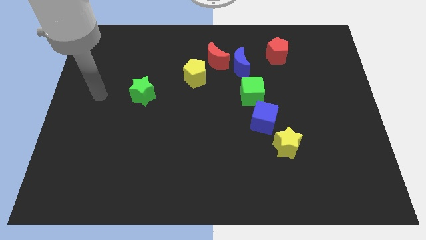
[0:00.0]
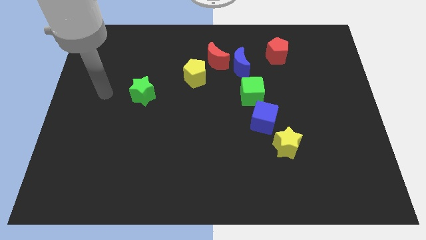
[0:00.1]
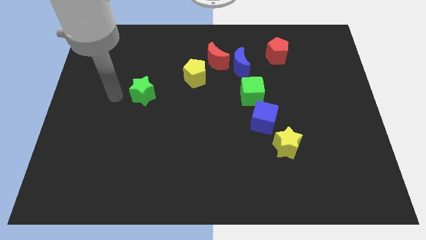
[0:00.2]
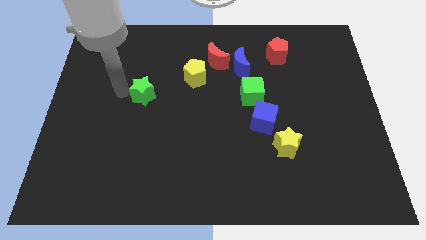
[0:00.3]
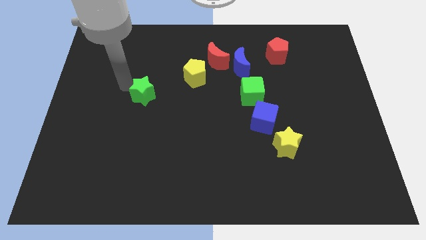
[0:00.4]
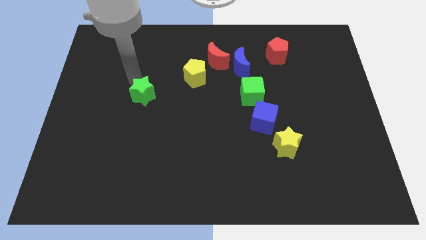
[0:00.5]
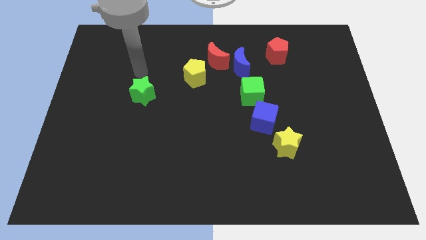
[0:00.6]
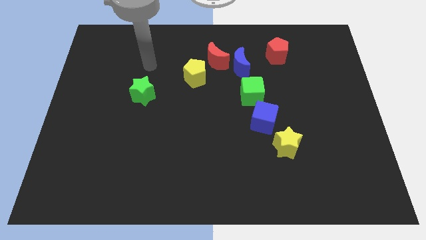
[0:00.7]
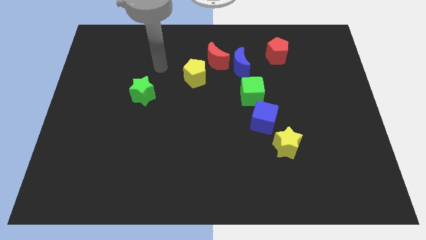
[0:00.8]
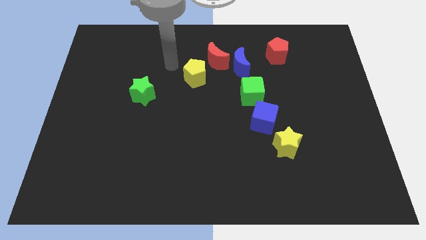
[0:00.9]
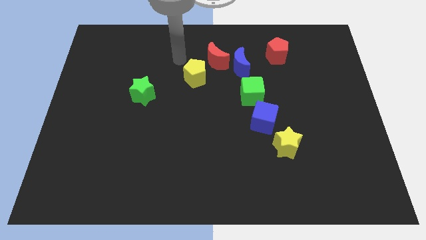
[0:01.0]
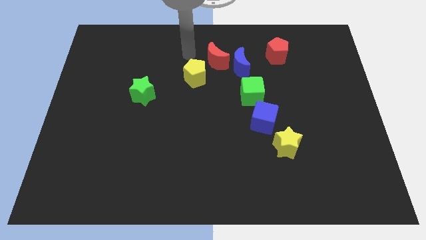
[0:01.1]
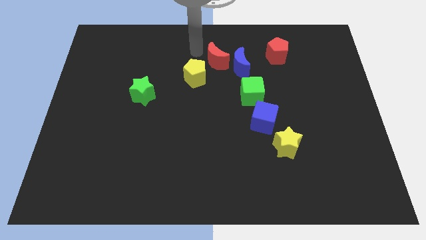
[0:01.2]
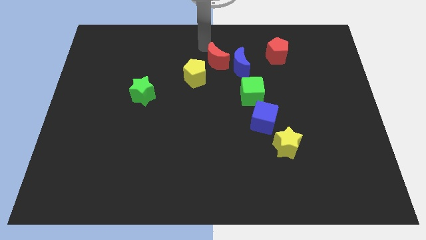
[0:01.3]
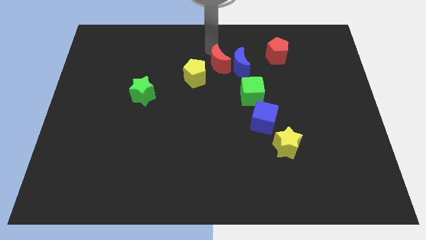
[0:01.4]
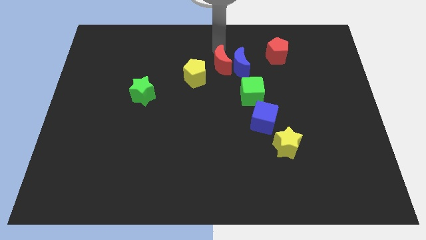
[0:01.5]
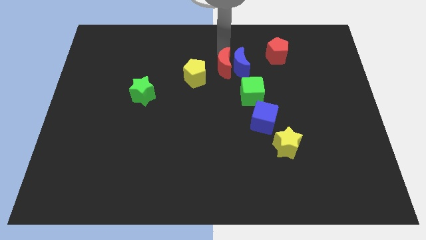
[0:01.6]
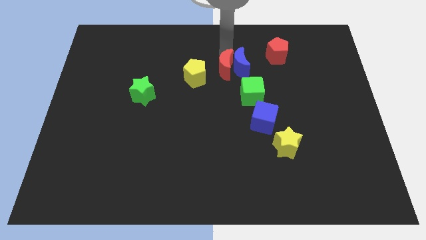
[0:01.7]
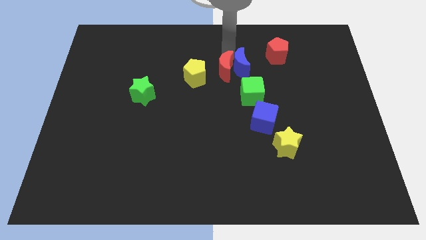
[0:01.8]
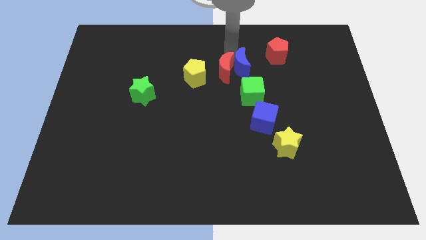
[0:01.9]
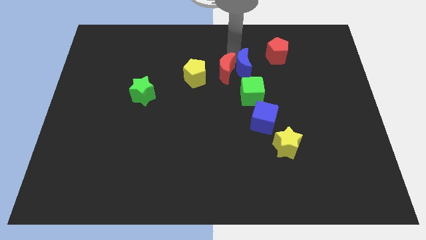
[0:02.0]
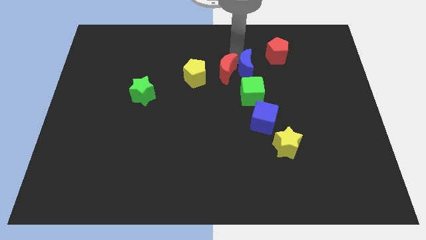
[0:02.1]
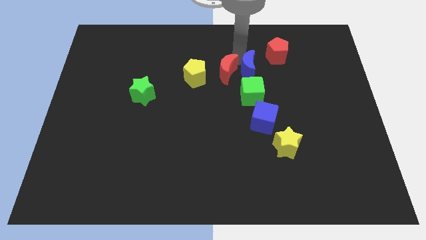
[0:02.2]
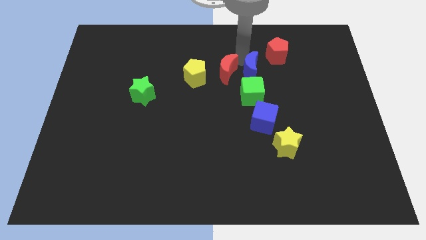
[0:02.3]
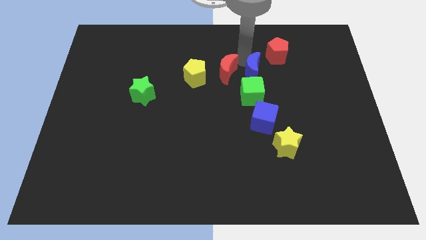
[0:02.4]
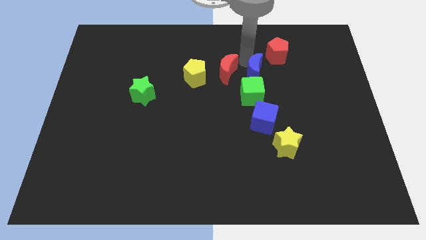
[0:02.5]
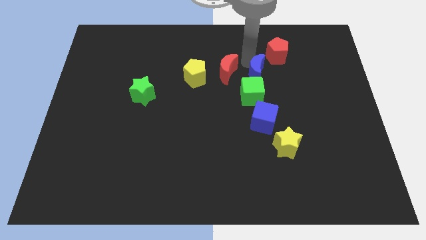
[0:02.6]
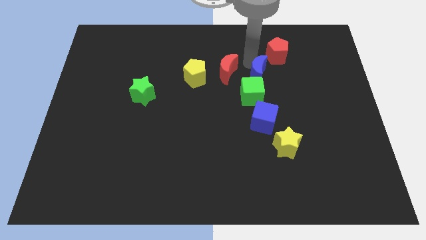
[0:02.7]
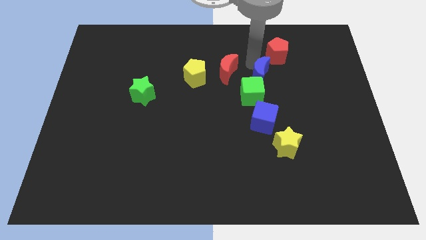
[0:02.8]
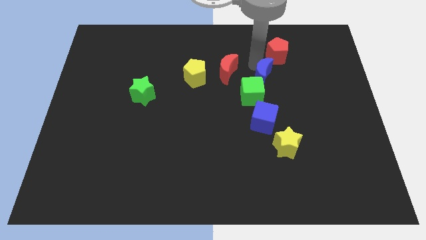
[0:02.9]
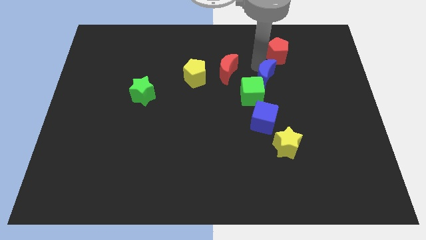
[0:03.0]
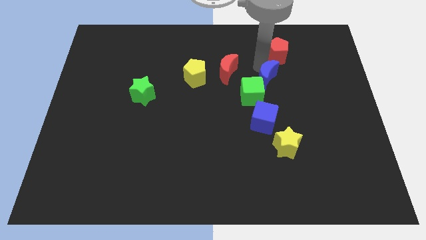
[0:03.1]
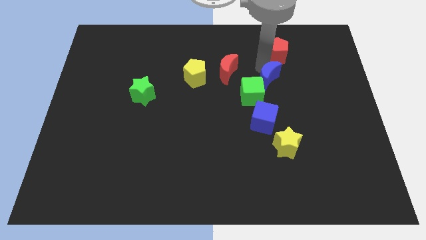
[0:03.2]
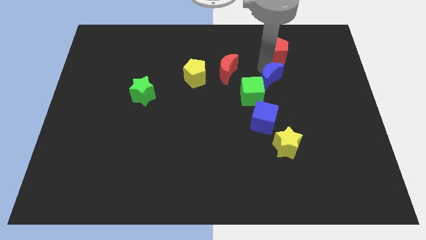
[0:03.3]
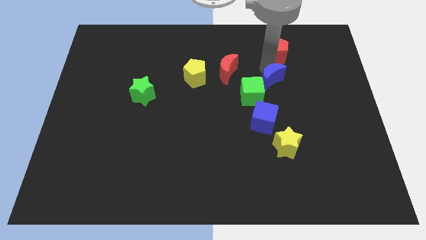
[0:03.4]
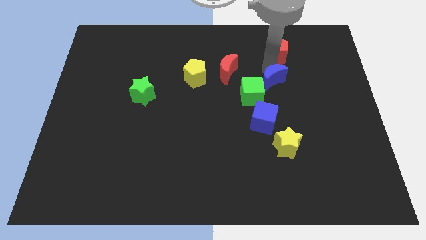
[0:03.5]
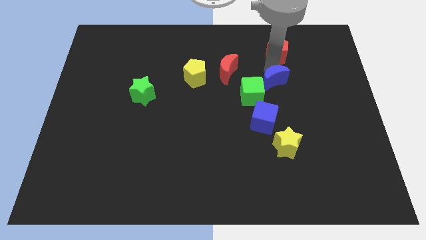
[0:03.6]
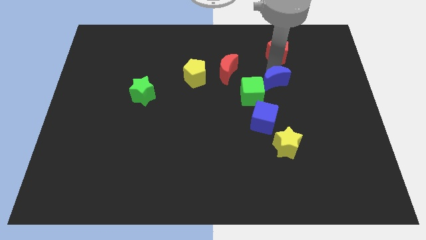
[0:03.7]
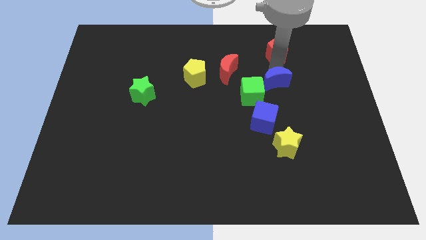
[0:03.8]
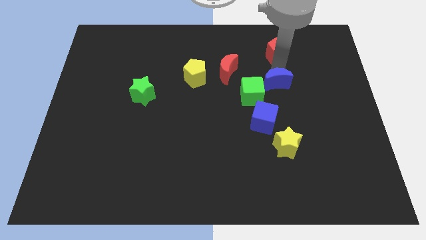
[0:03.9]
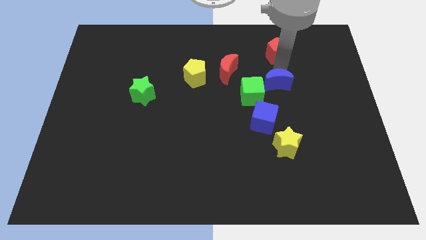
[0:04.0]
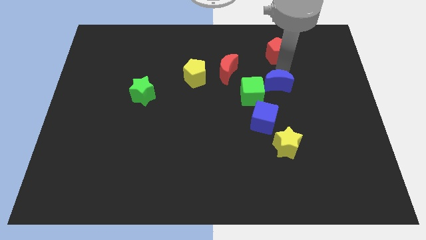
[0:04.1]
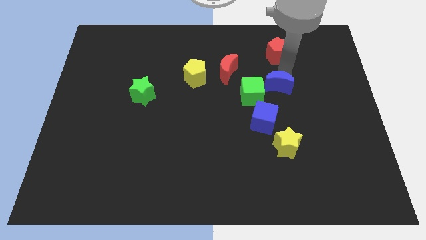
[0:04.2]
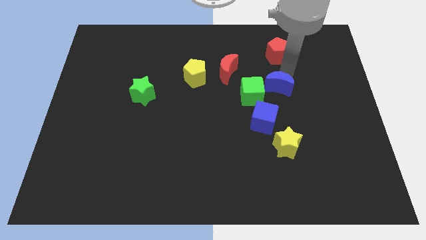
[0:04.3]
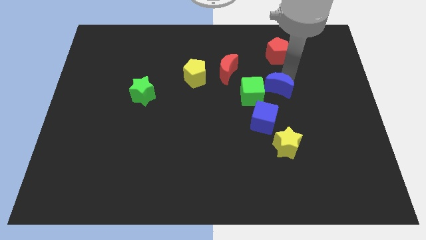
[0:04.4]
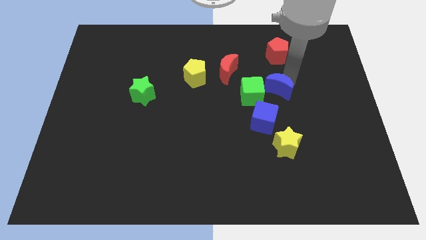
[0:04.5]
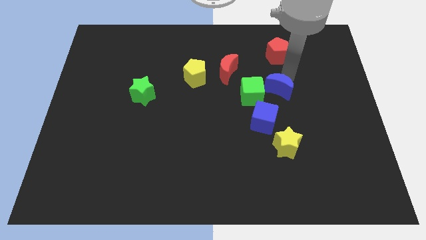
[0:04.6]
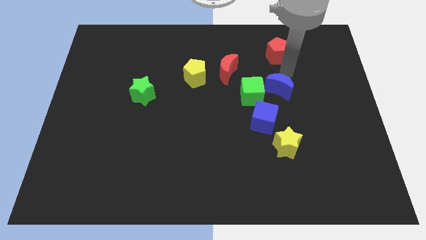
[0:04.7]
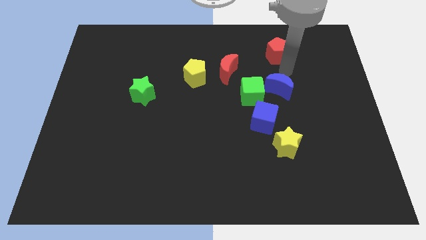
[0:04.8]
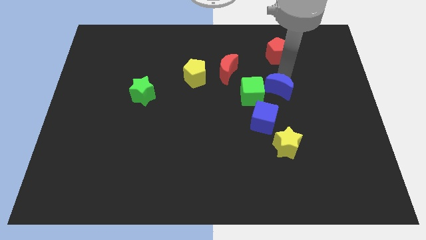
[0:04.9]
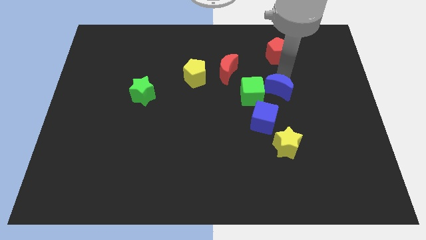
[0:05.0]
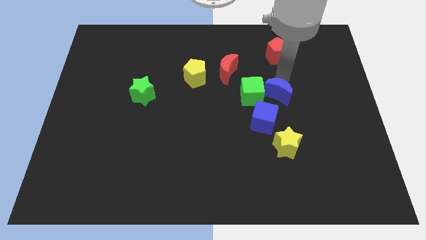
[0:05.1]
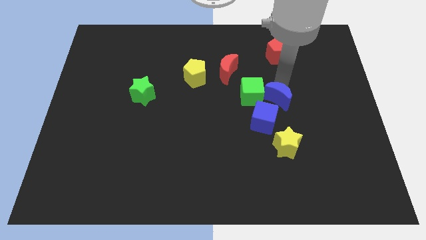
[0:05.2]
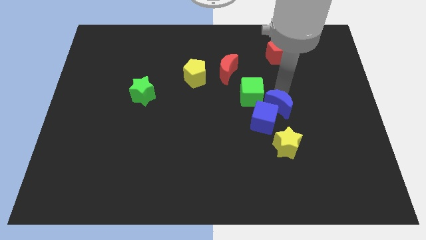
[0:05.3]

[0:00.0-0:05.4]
push the blue moon next to the blue cube

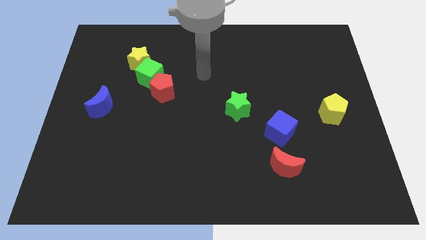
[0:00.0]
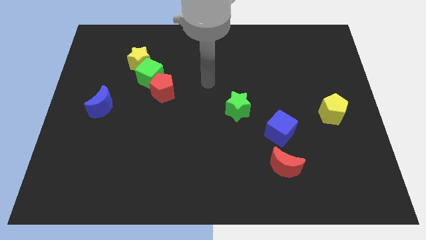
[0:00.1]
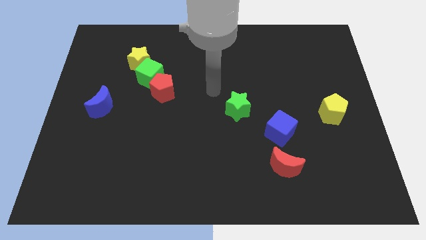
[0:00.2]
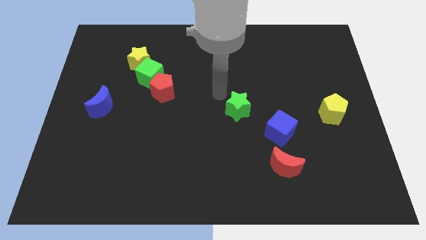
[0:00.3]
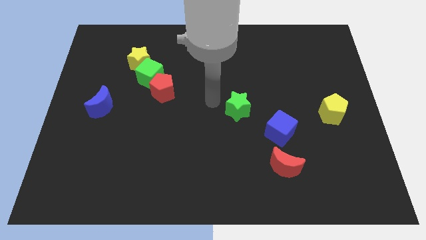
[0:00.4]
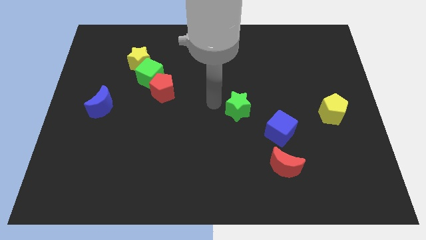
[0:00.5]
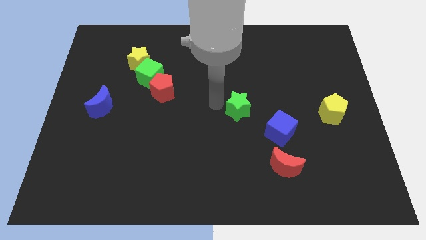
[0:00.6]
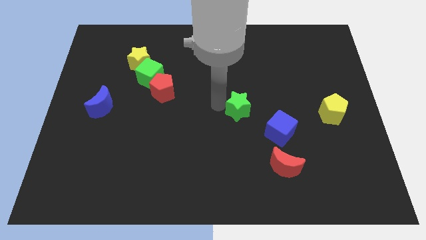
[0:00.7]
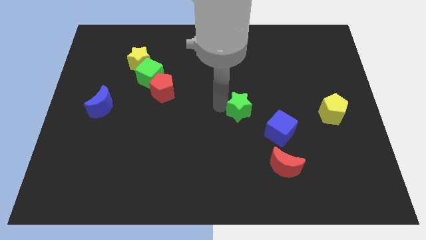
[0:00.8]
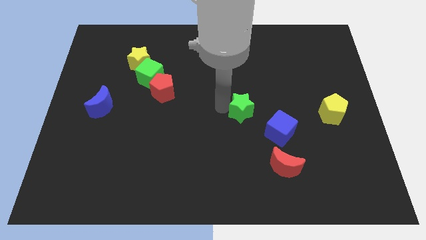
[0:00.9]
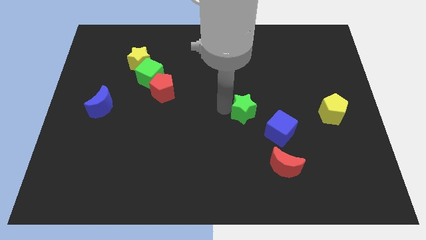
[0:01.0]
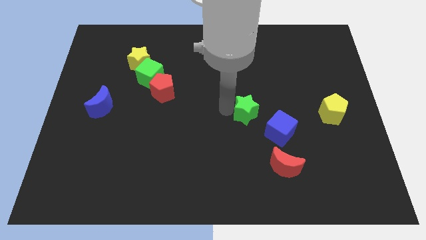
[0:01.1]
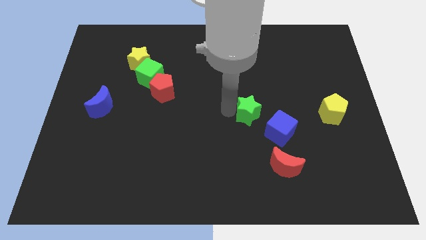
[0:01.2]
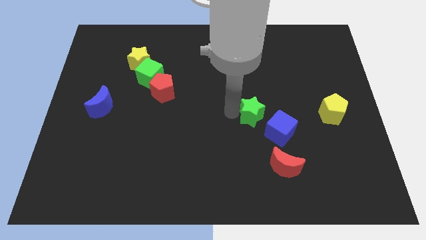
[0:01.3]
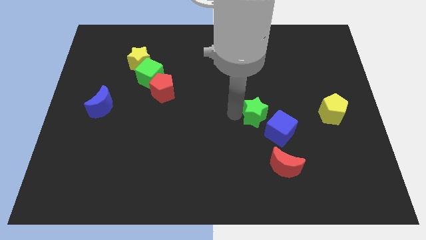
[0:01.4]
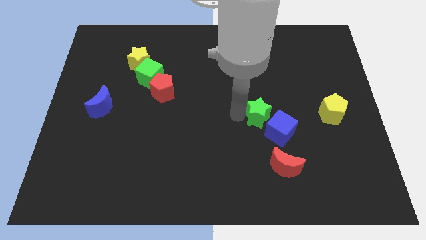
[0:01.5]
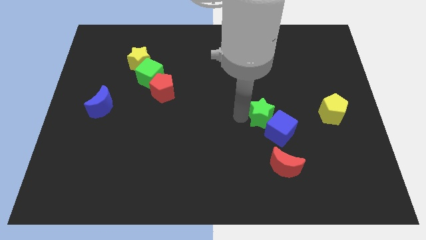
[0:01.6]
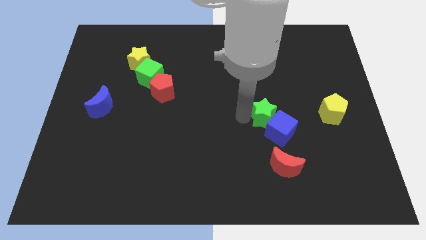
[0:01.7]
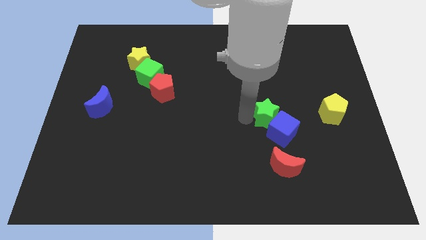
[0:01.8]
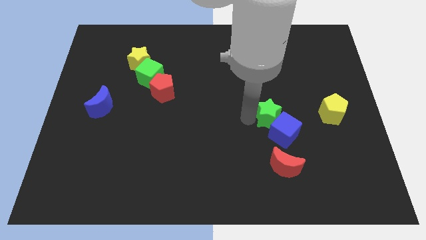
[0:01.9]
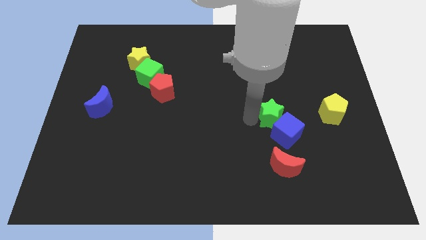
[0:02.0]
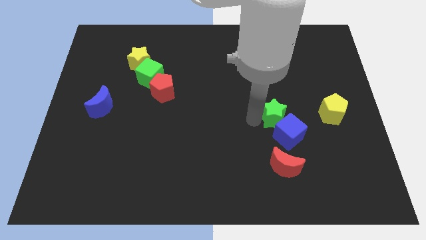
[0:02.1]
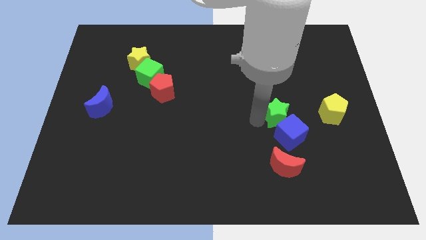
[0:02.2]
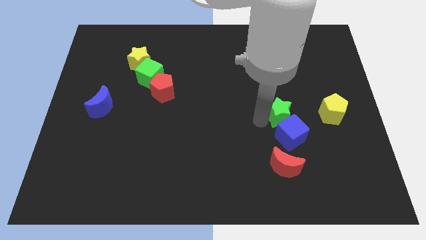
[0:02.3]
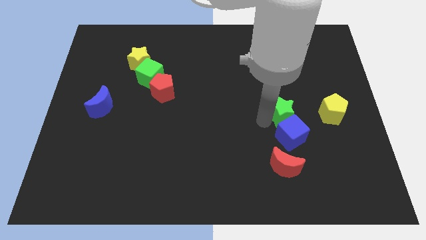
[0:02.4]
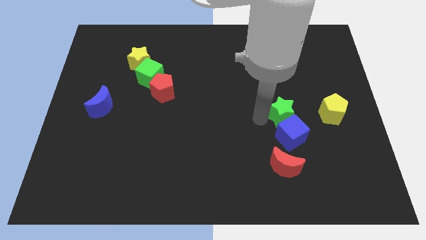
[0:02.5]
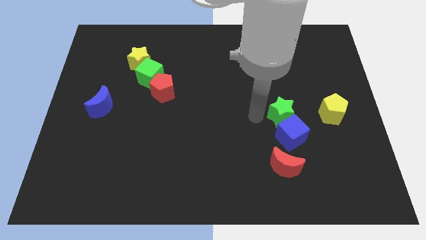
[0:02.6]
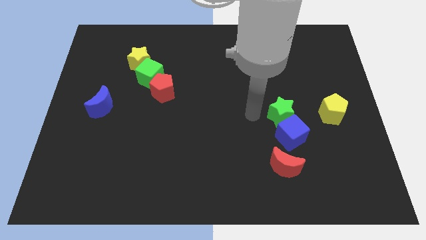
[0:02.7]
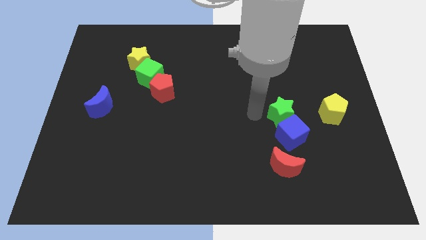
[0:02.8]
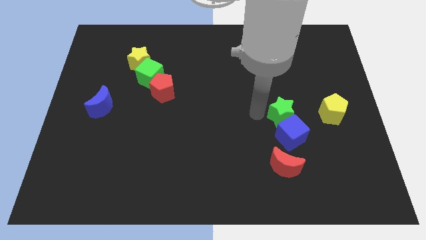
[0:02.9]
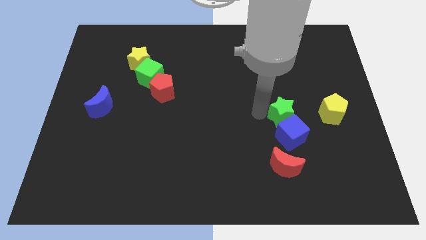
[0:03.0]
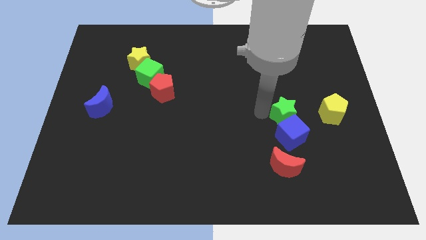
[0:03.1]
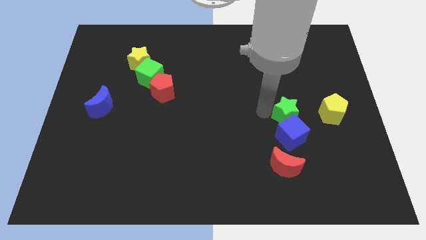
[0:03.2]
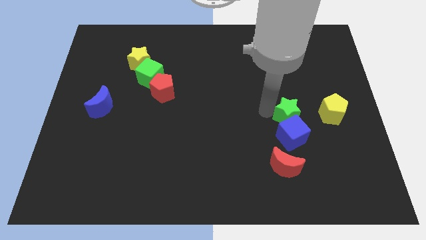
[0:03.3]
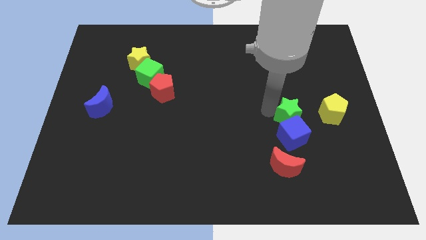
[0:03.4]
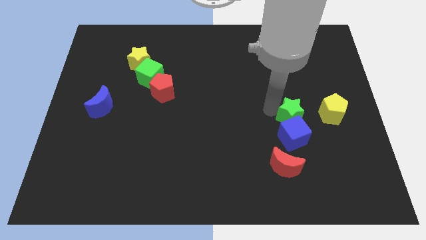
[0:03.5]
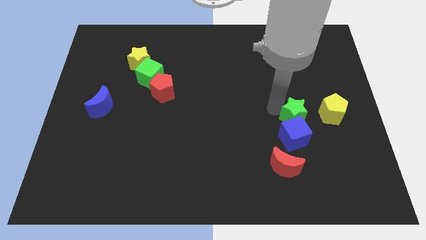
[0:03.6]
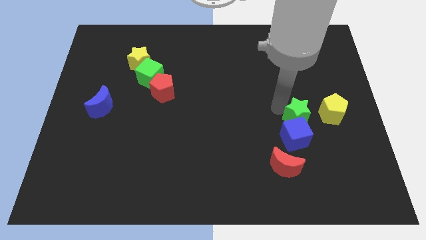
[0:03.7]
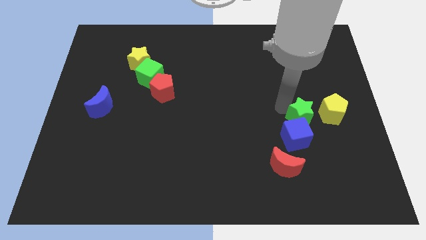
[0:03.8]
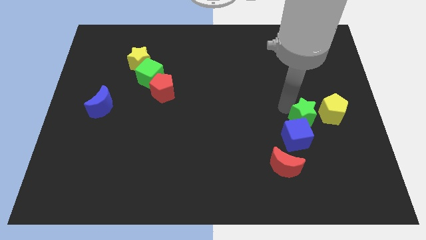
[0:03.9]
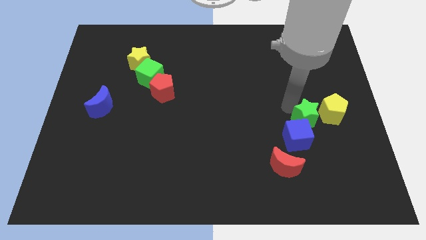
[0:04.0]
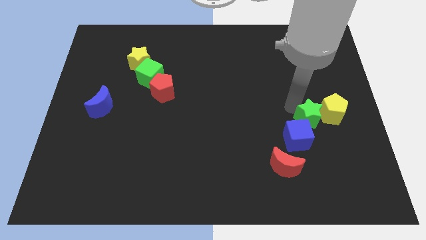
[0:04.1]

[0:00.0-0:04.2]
push the green star close to the yellow pentagon
